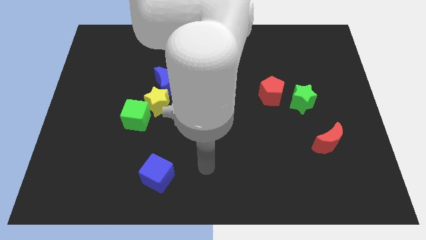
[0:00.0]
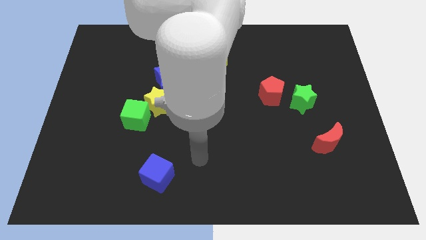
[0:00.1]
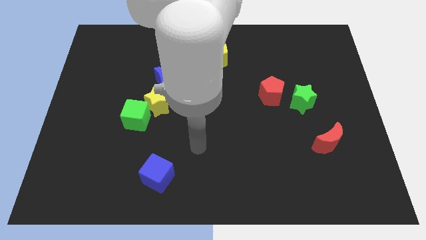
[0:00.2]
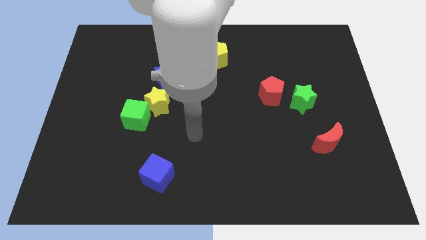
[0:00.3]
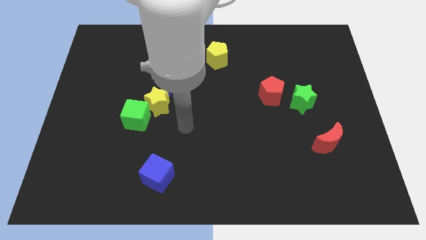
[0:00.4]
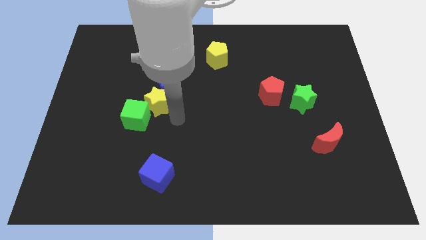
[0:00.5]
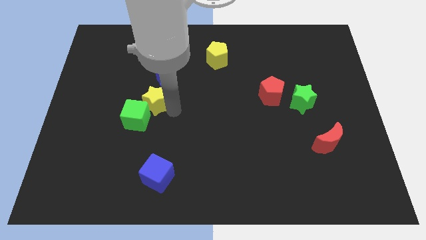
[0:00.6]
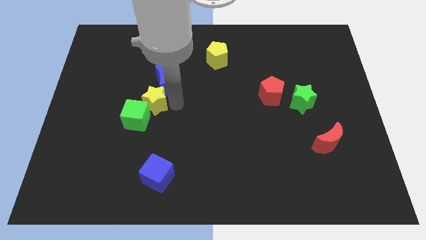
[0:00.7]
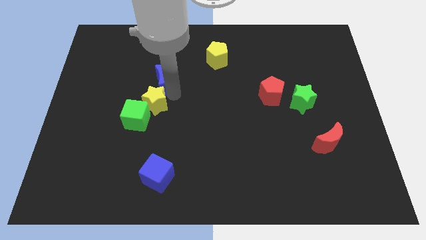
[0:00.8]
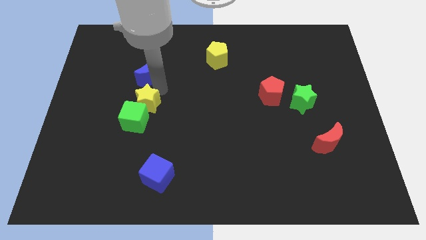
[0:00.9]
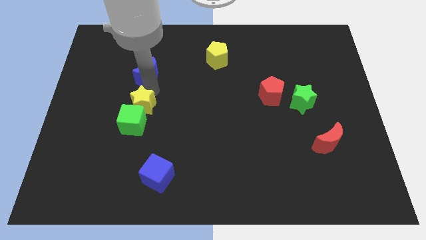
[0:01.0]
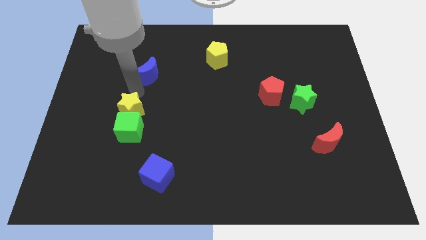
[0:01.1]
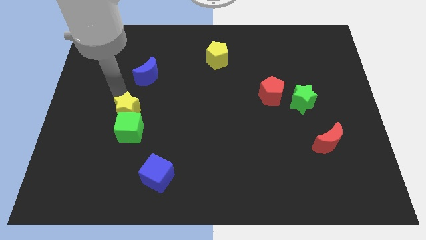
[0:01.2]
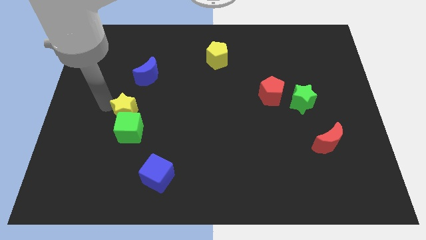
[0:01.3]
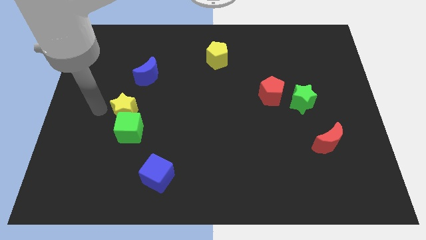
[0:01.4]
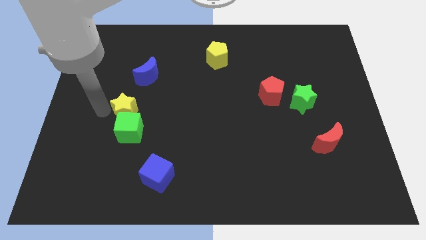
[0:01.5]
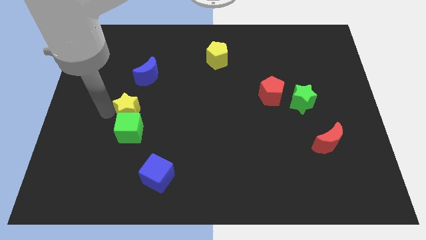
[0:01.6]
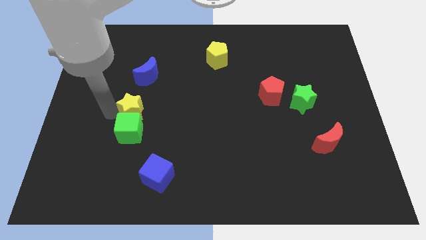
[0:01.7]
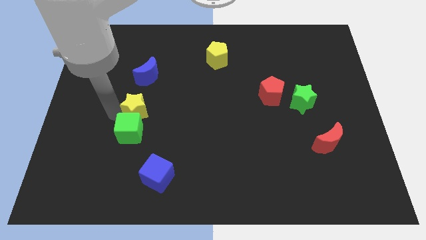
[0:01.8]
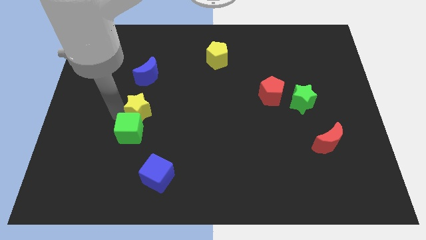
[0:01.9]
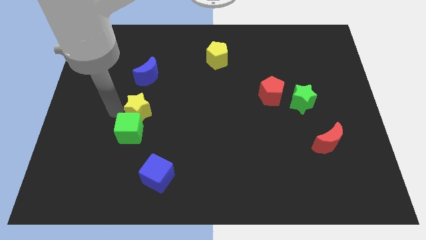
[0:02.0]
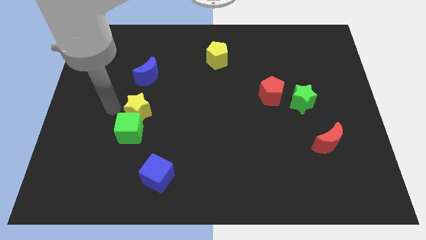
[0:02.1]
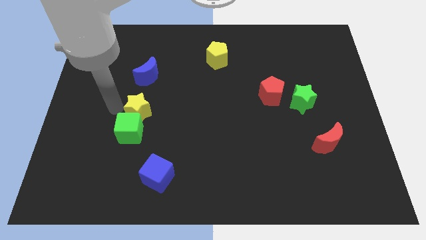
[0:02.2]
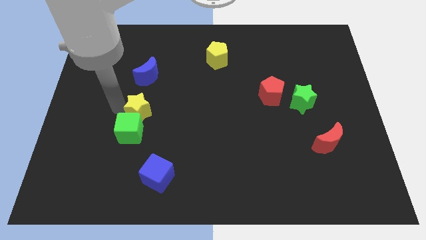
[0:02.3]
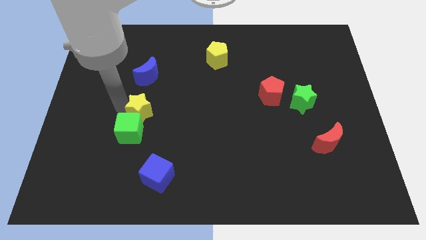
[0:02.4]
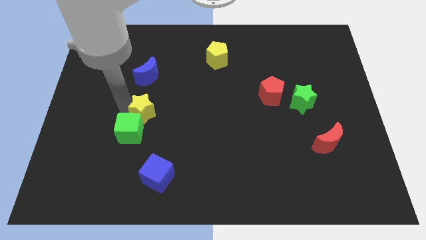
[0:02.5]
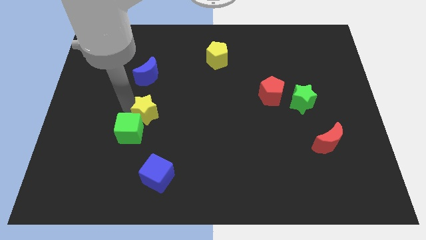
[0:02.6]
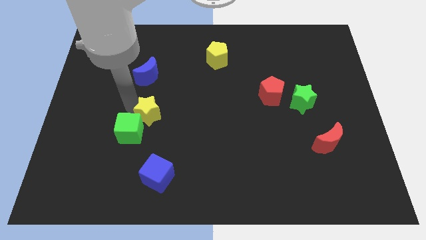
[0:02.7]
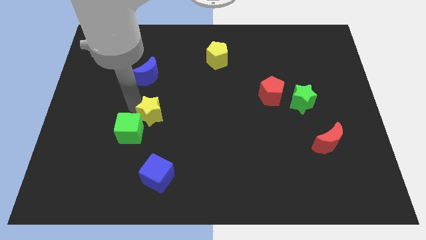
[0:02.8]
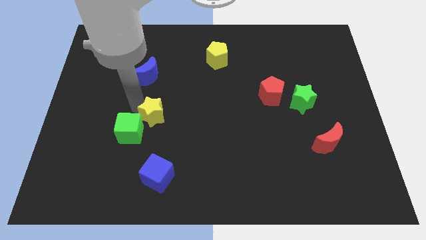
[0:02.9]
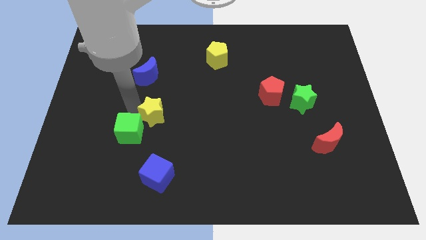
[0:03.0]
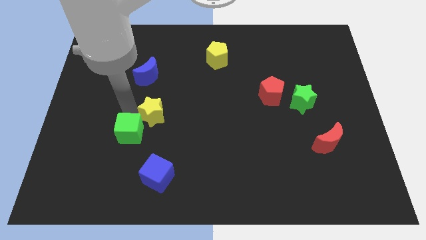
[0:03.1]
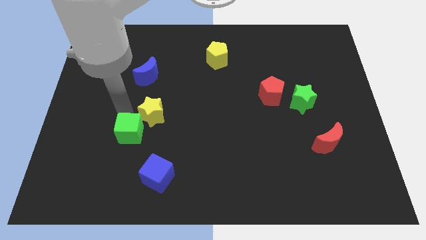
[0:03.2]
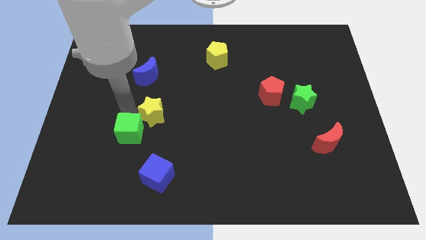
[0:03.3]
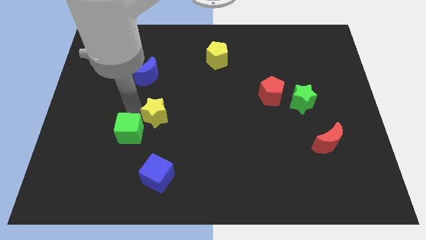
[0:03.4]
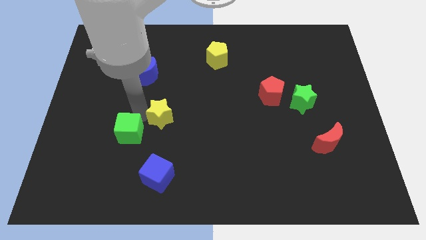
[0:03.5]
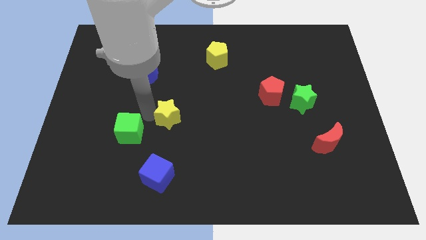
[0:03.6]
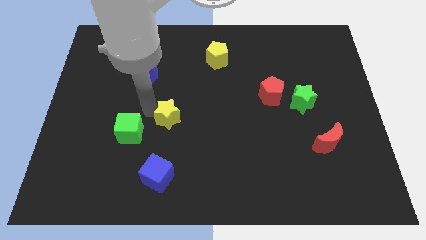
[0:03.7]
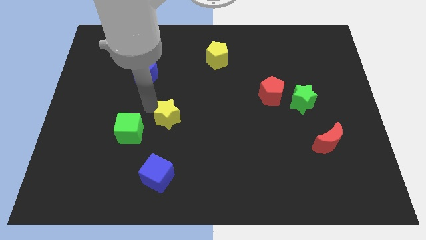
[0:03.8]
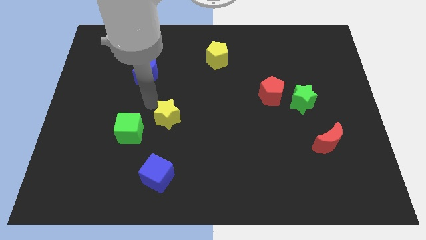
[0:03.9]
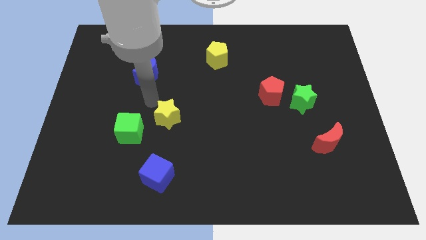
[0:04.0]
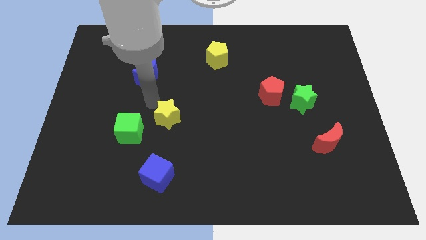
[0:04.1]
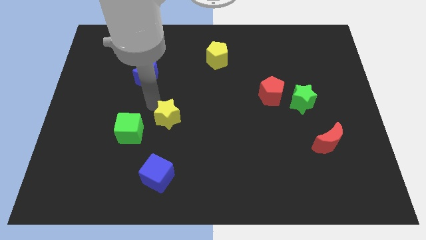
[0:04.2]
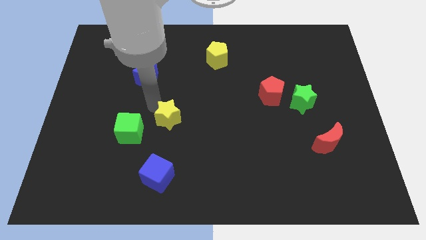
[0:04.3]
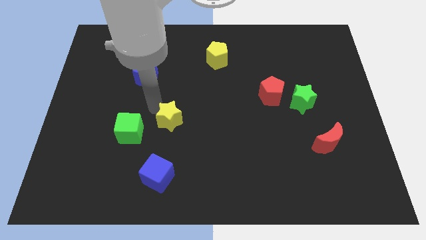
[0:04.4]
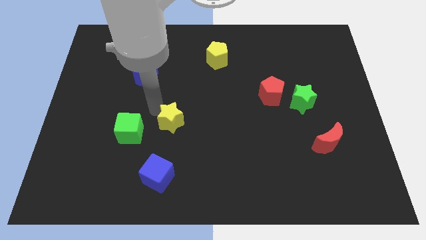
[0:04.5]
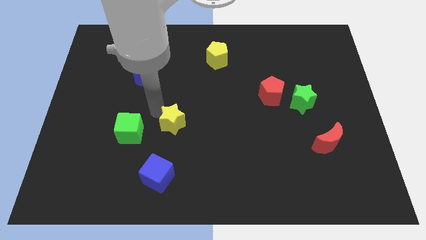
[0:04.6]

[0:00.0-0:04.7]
move the yellow star slightly diagonally downwards and right

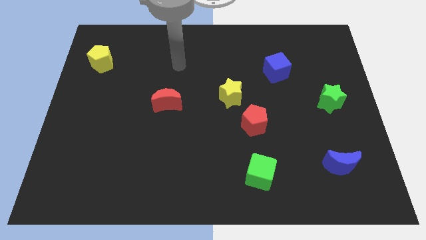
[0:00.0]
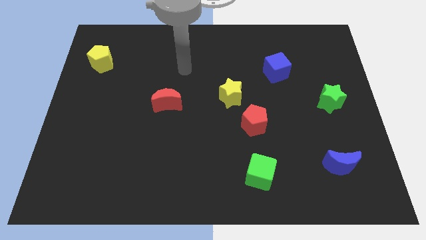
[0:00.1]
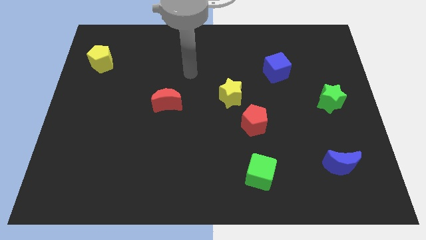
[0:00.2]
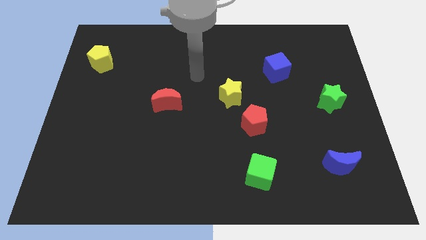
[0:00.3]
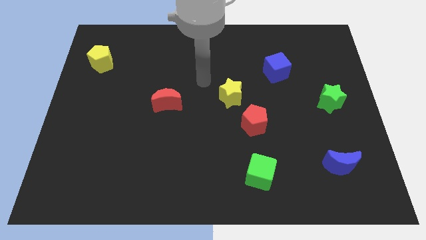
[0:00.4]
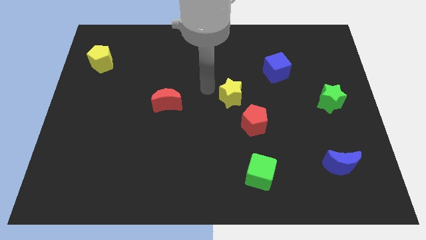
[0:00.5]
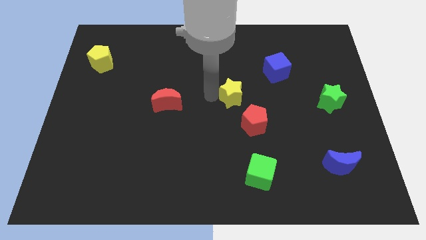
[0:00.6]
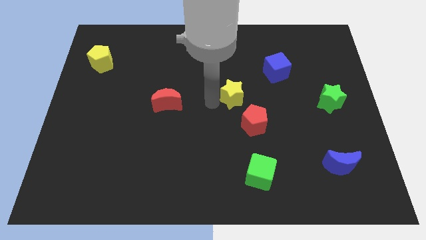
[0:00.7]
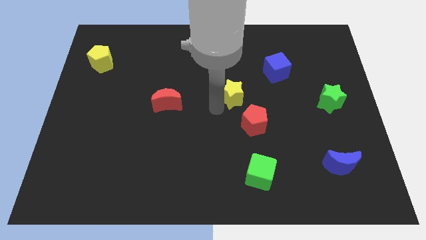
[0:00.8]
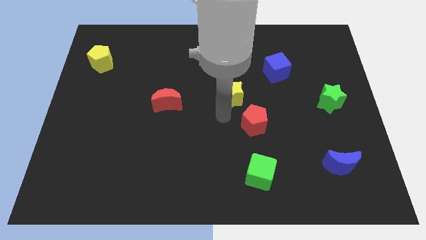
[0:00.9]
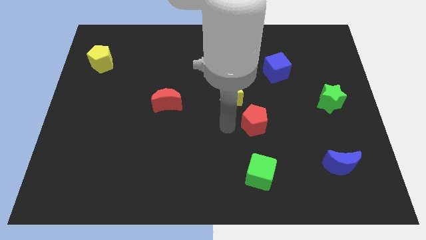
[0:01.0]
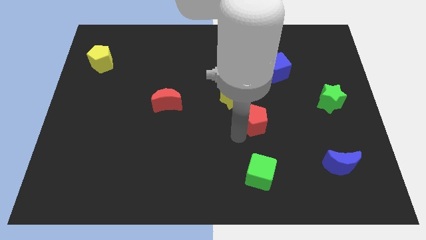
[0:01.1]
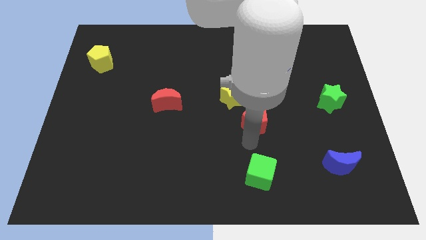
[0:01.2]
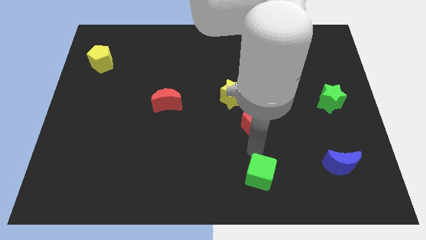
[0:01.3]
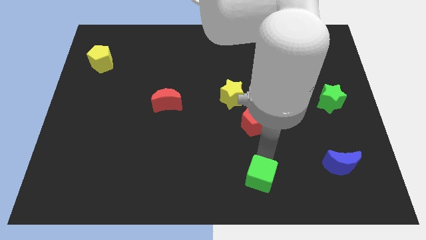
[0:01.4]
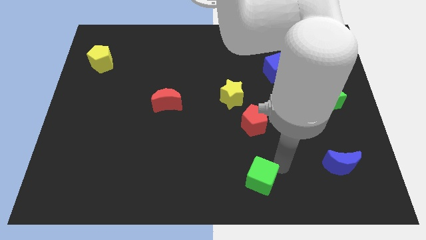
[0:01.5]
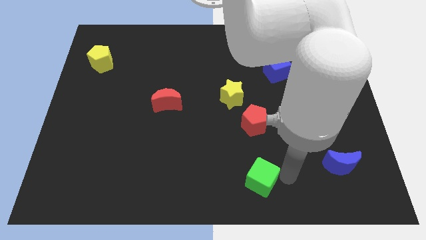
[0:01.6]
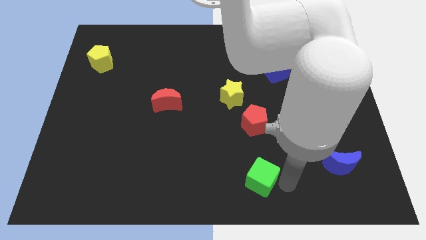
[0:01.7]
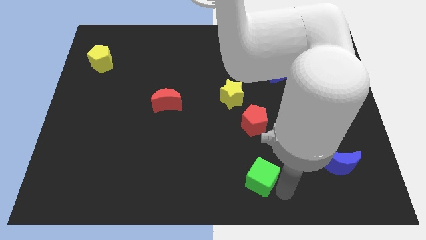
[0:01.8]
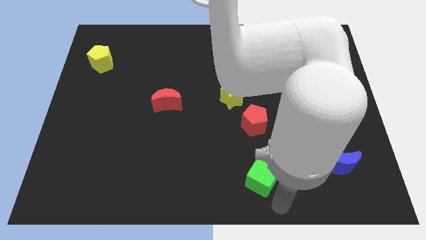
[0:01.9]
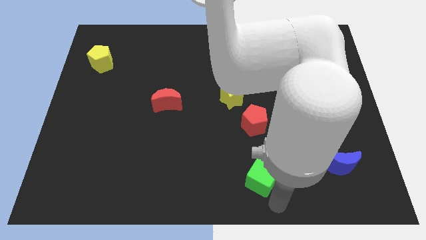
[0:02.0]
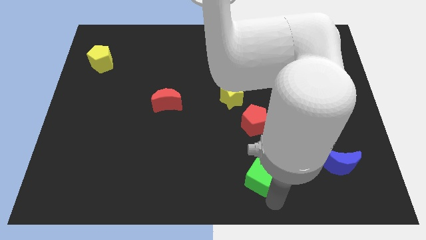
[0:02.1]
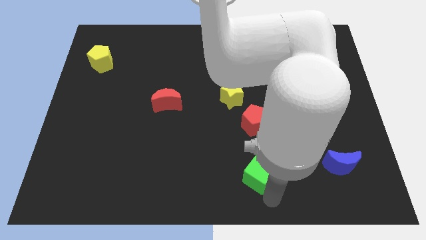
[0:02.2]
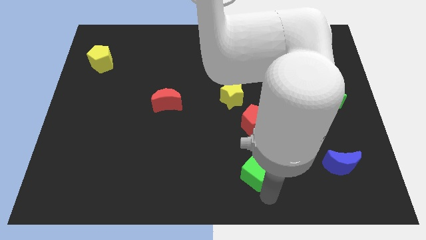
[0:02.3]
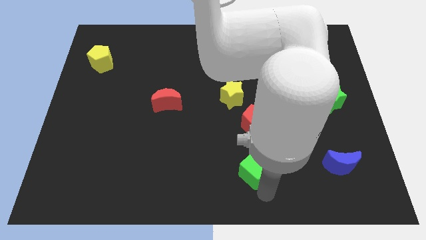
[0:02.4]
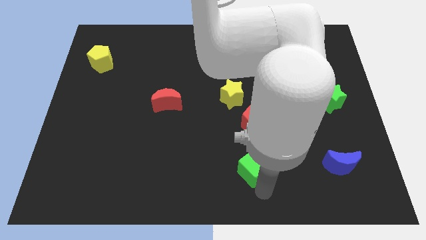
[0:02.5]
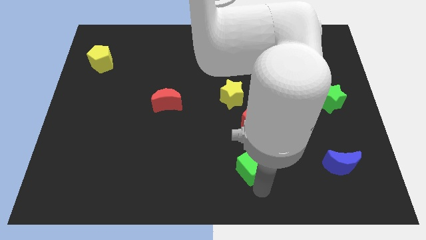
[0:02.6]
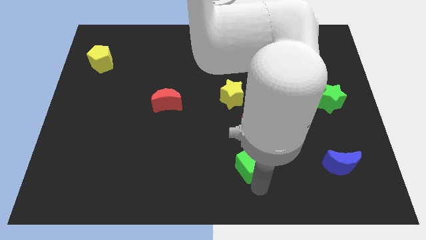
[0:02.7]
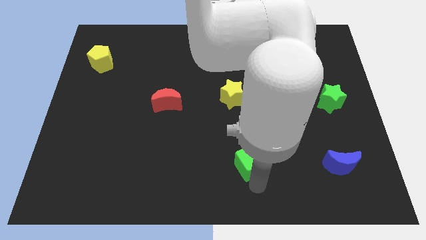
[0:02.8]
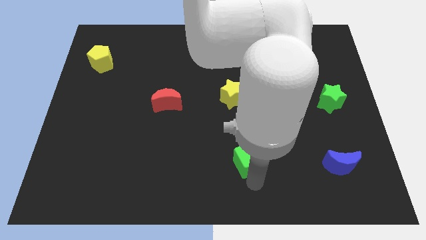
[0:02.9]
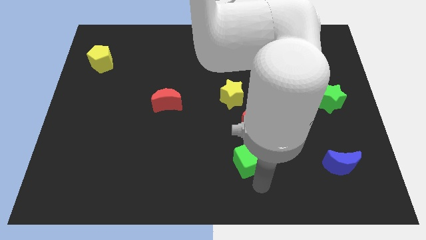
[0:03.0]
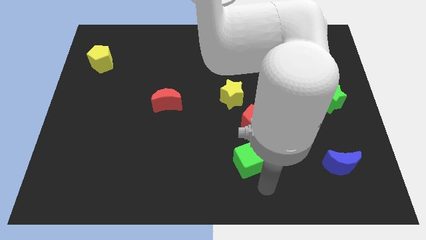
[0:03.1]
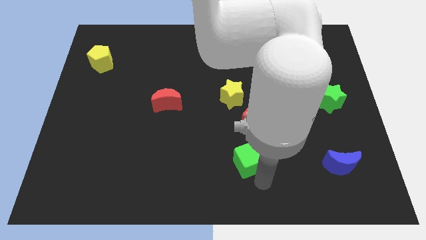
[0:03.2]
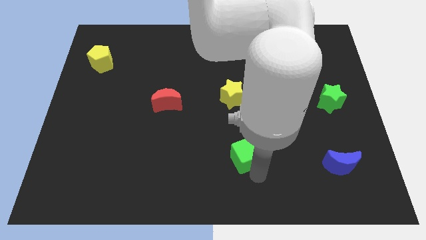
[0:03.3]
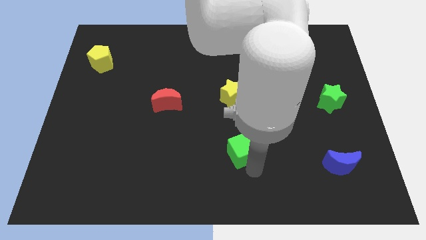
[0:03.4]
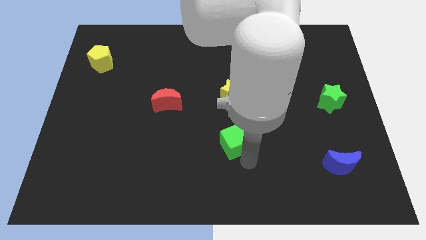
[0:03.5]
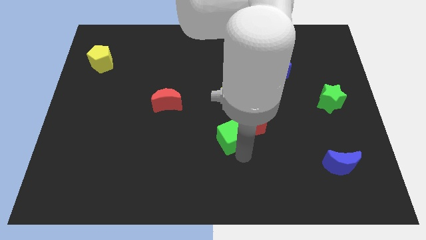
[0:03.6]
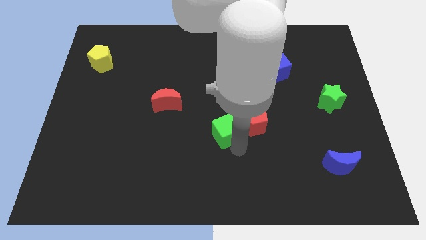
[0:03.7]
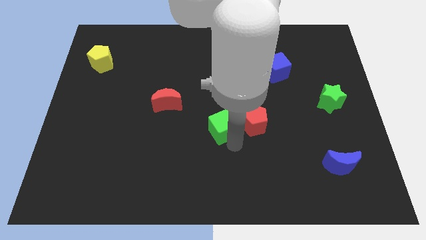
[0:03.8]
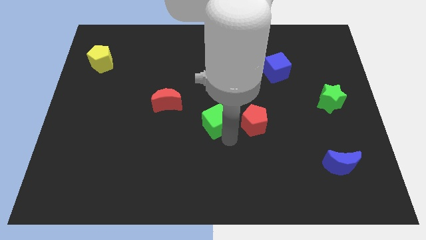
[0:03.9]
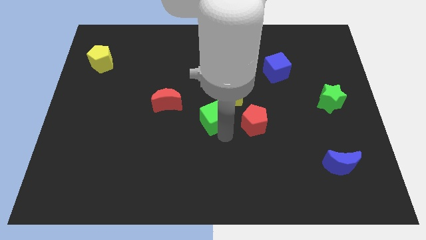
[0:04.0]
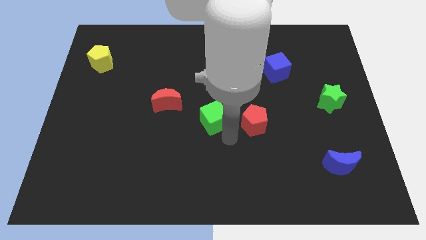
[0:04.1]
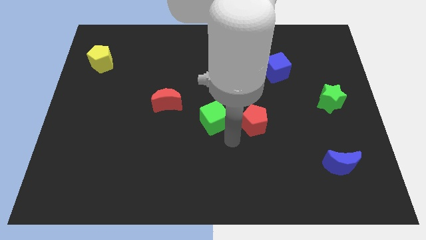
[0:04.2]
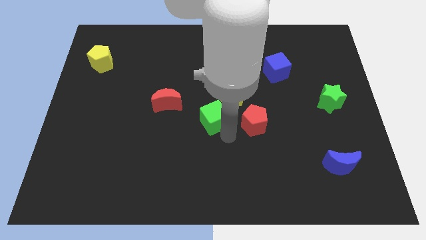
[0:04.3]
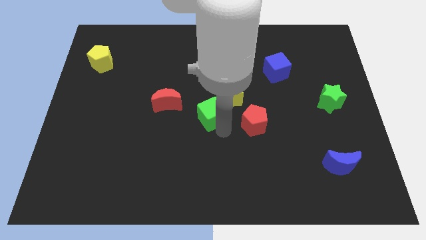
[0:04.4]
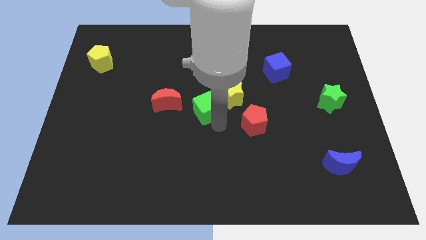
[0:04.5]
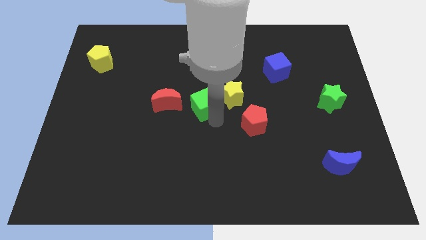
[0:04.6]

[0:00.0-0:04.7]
slide the green cube diagonally upwards and left
